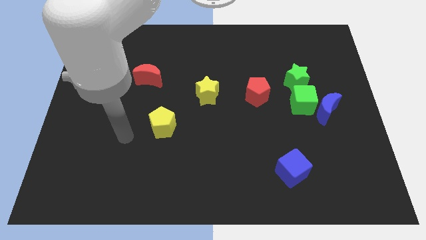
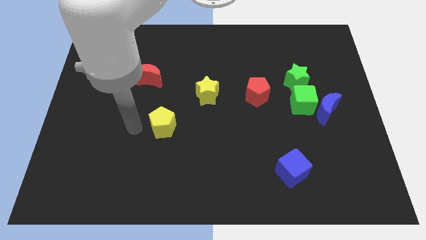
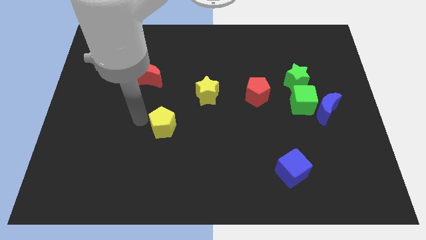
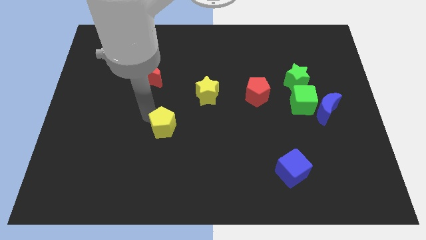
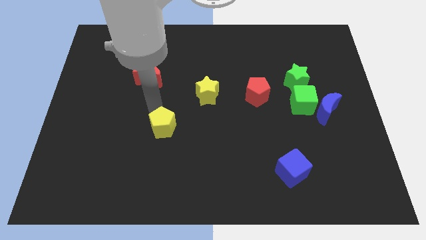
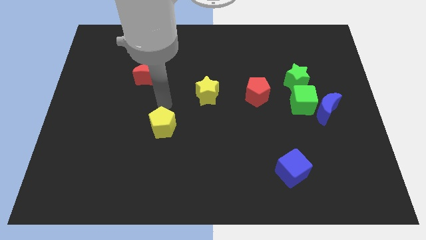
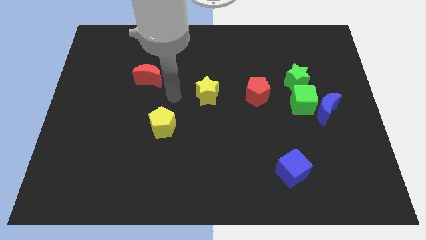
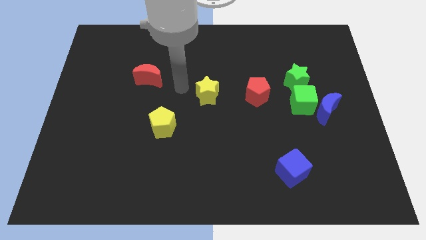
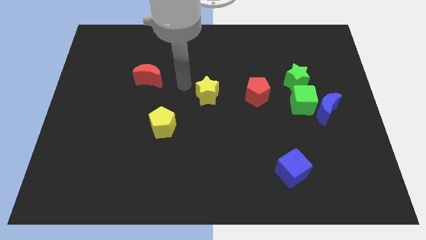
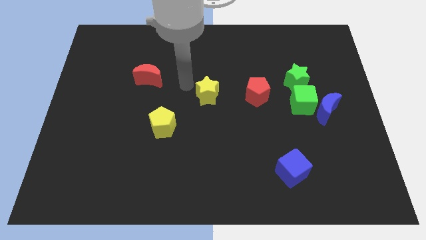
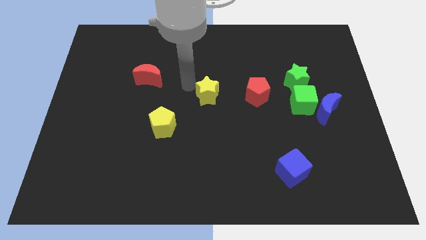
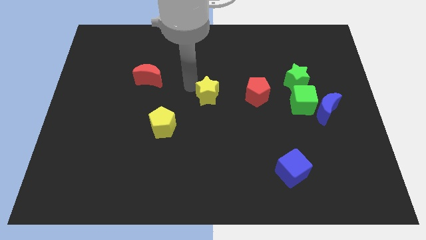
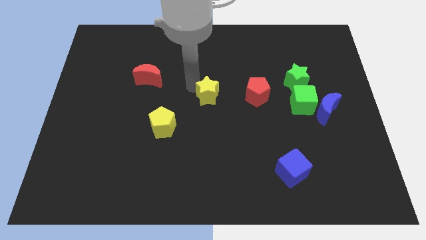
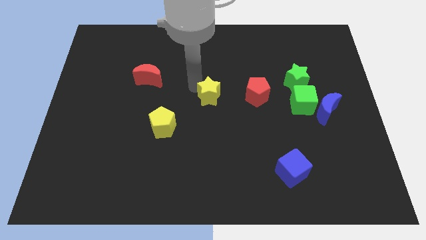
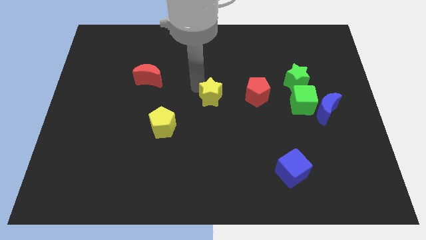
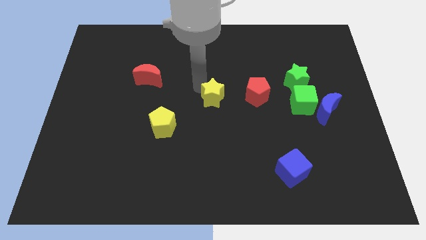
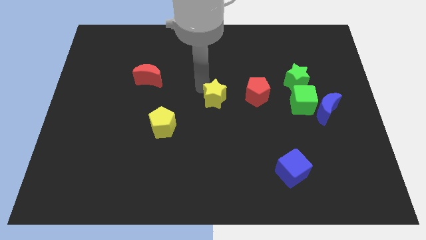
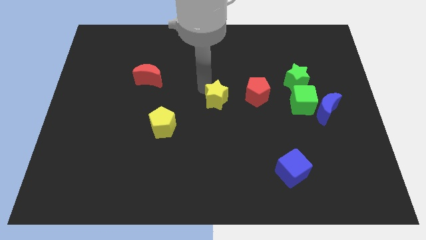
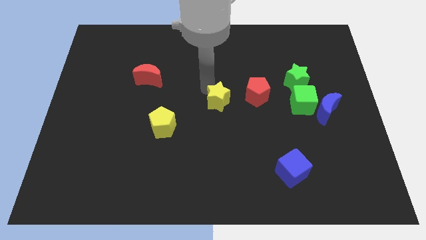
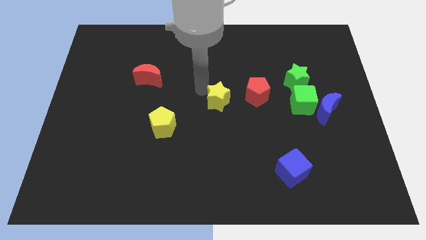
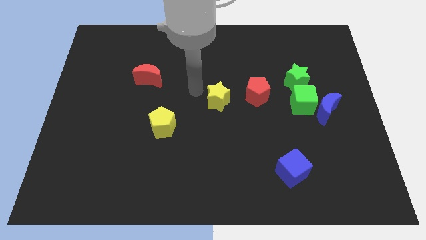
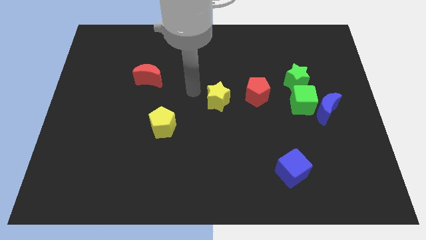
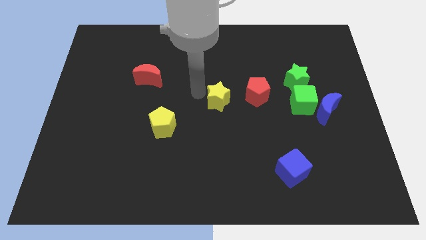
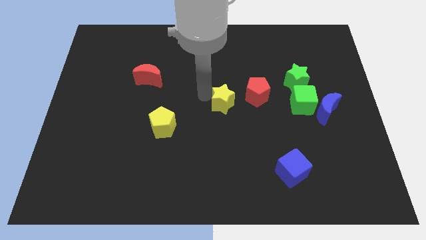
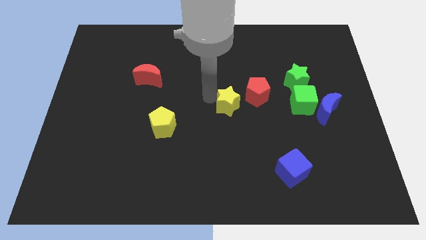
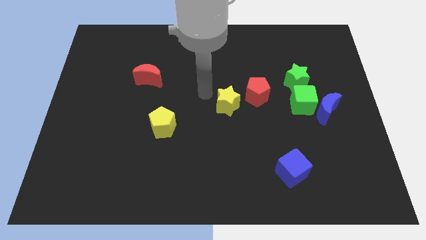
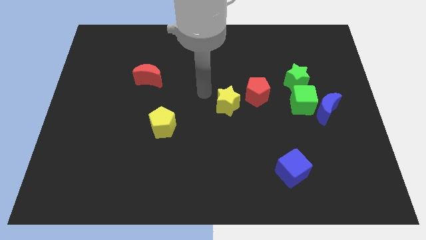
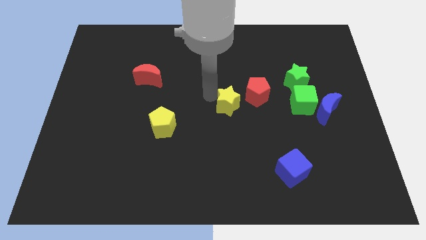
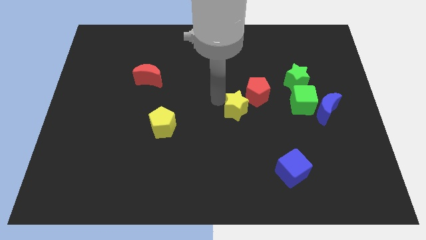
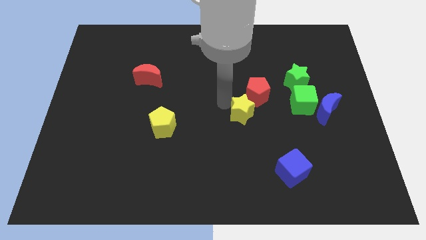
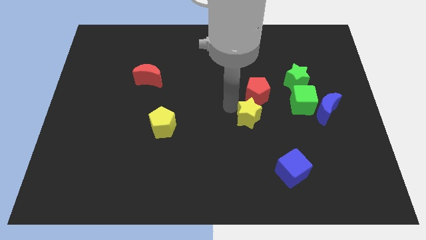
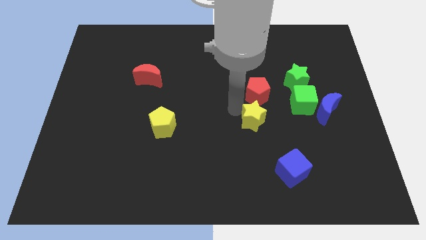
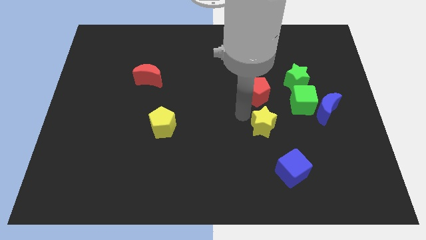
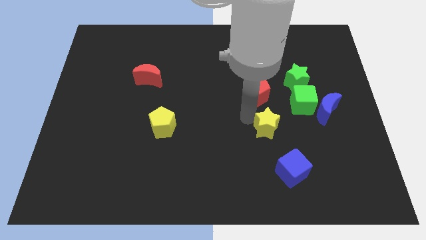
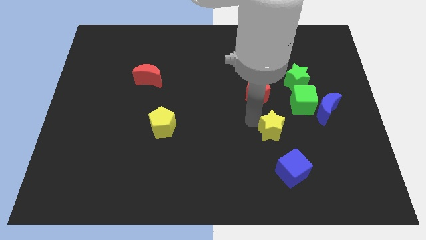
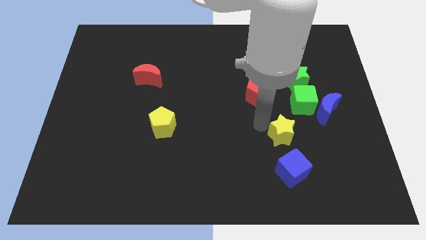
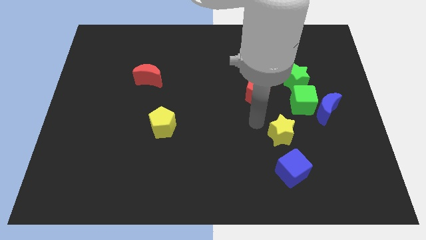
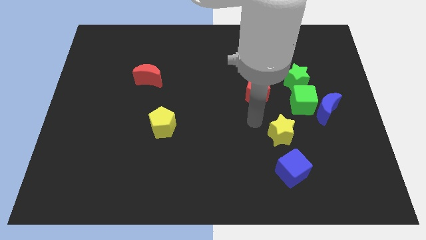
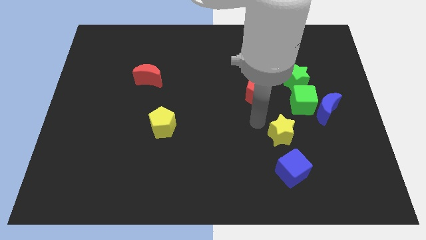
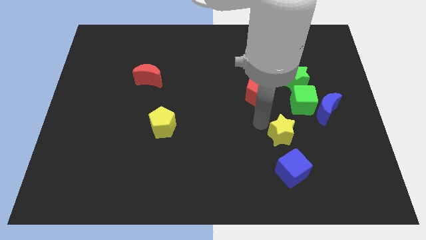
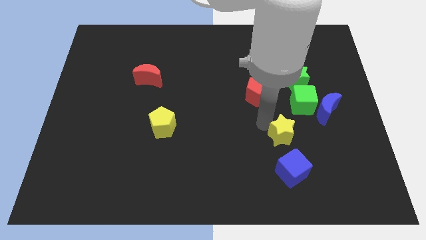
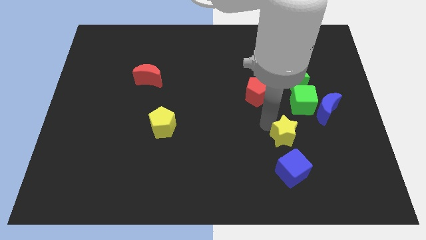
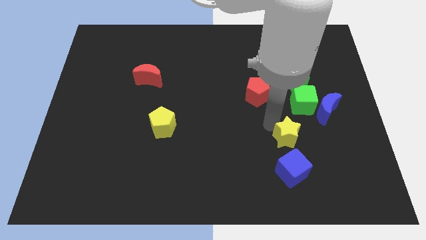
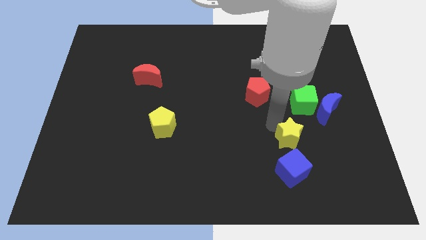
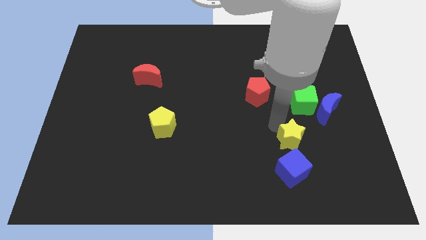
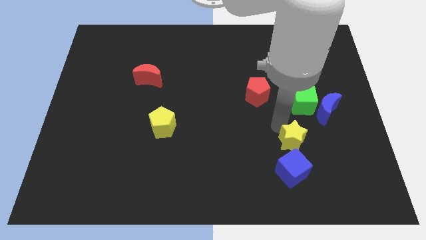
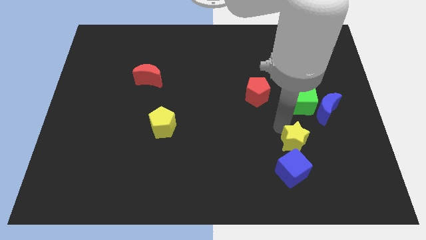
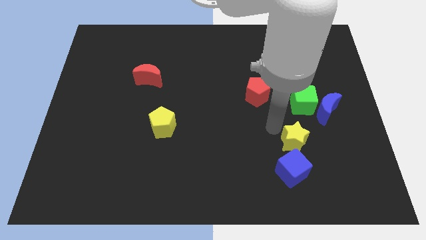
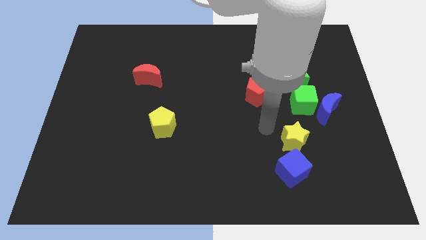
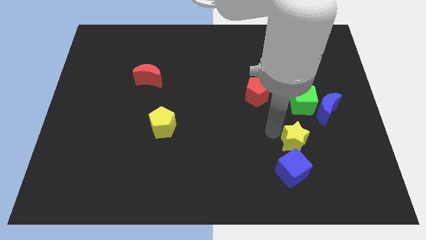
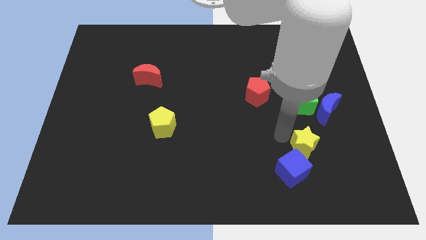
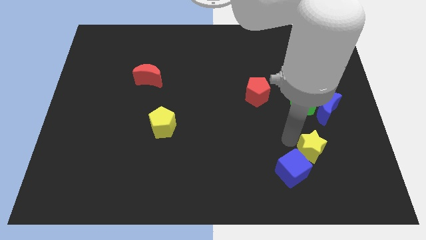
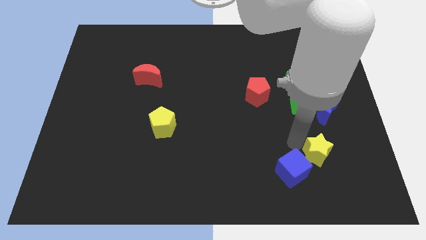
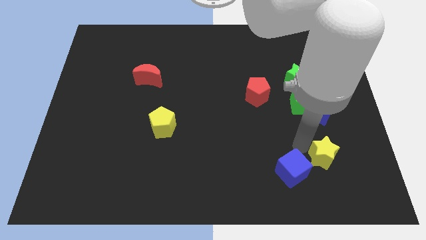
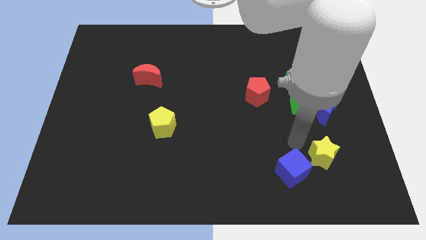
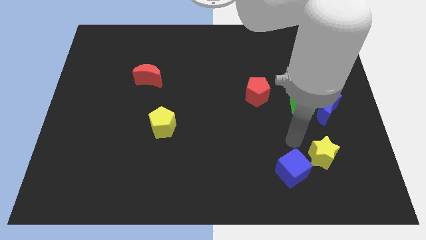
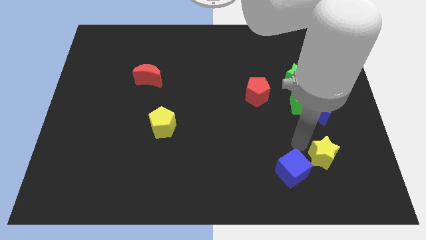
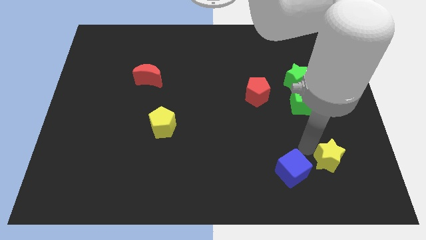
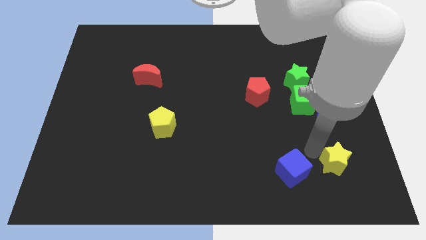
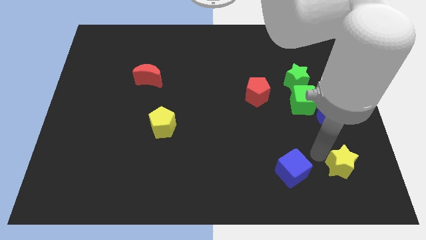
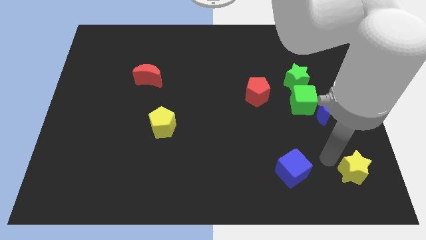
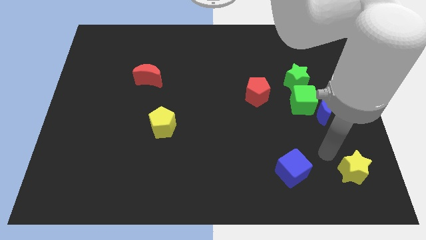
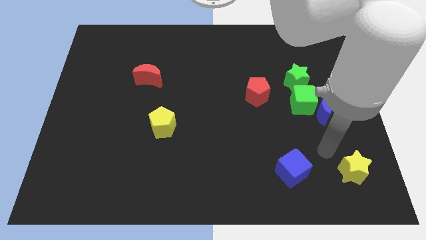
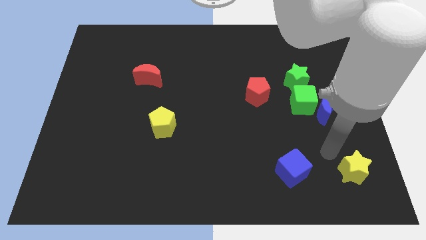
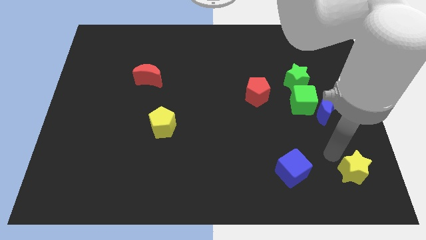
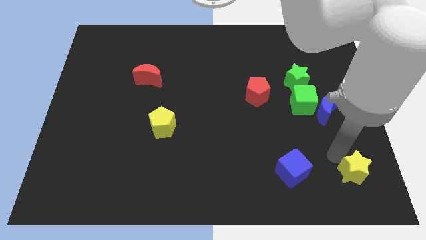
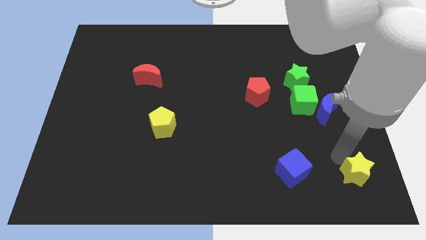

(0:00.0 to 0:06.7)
put the yellow star to the bottom right of the board

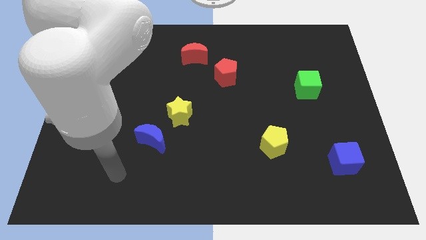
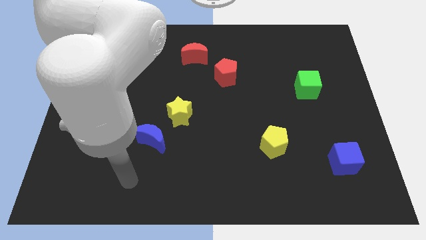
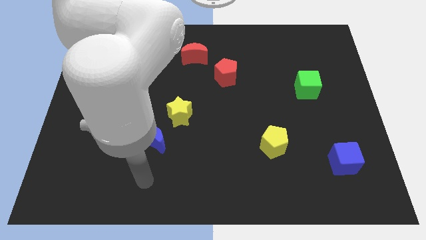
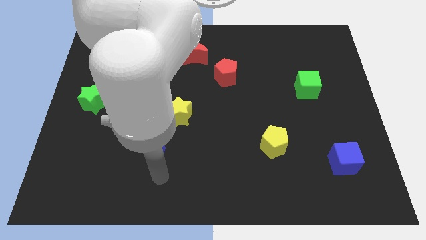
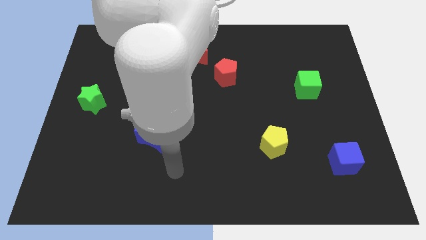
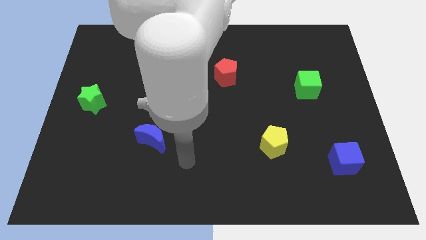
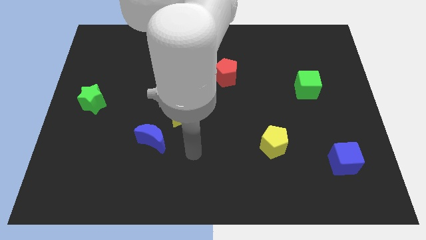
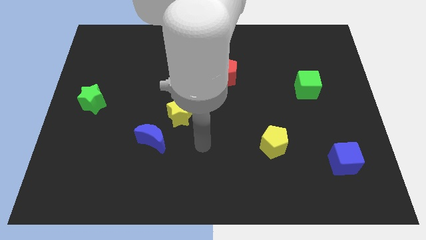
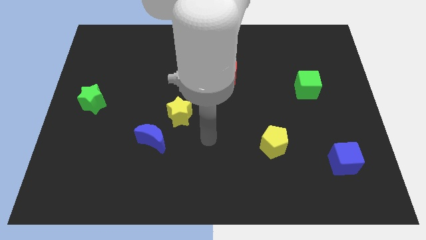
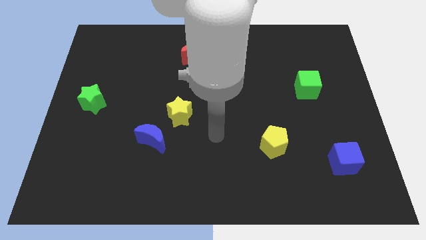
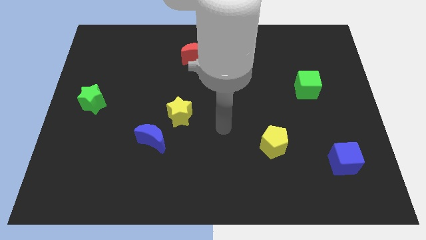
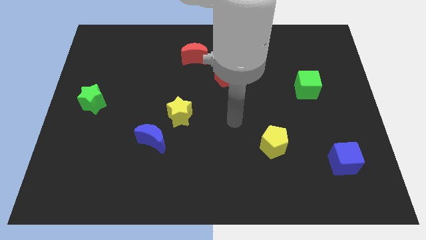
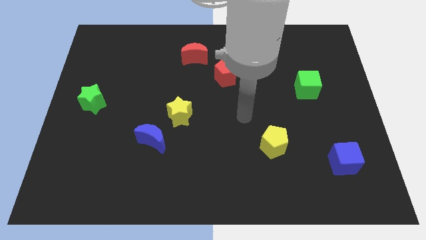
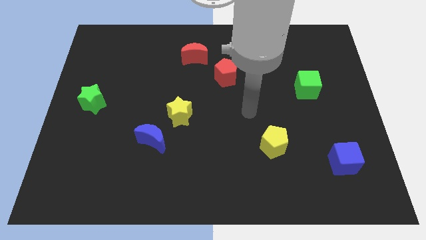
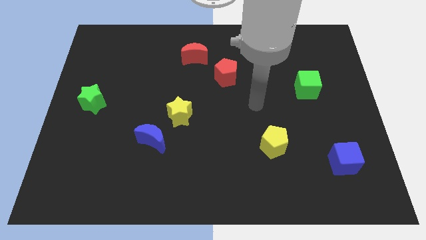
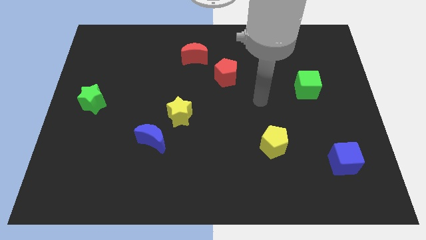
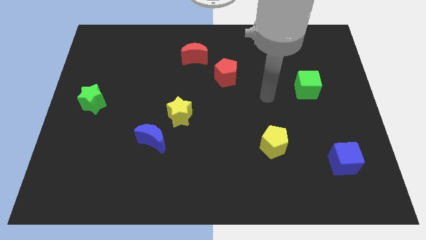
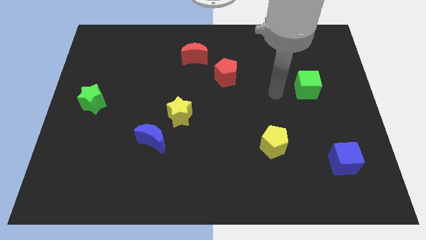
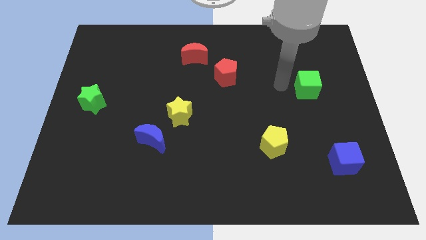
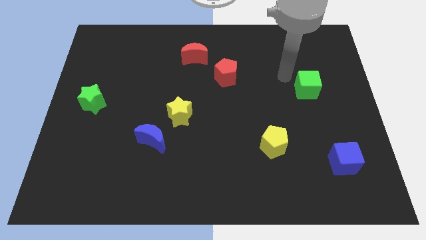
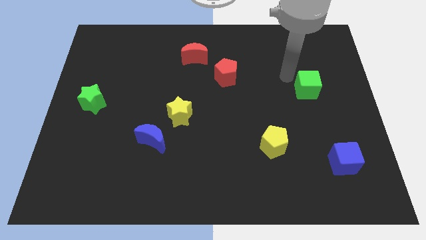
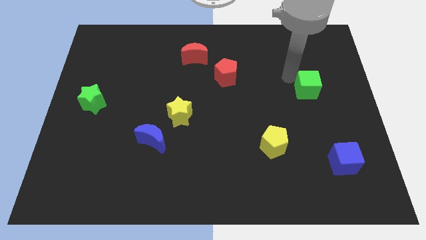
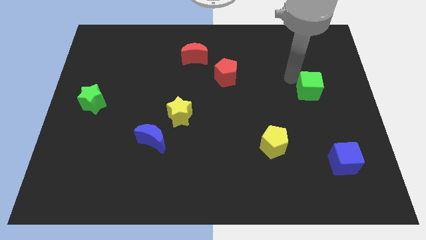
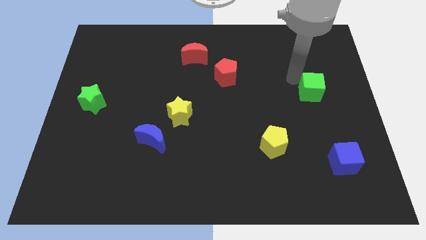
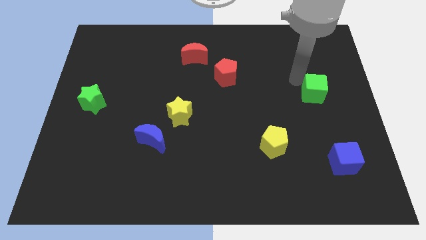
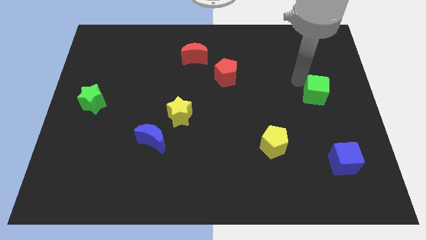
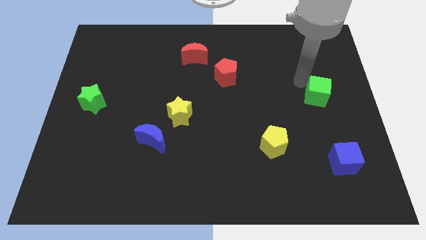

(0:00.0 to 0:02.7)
put the green cube to the right side
